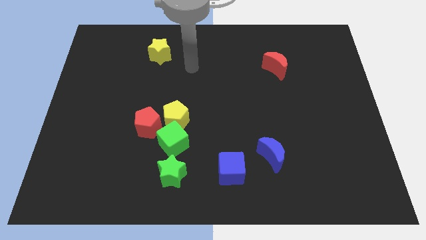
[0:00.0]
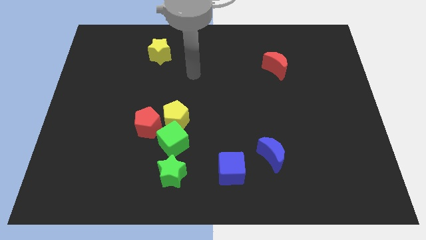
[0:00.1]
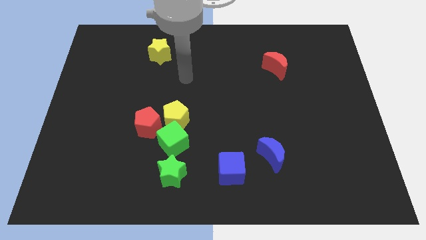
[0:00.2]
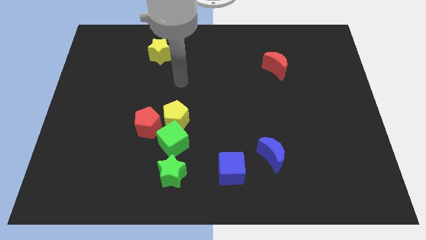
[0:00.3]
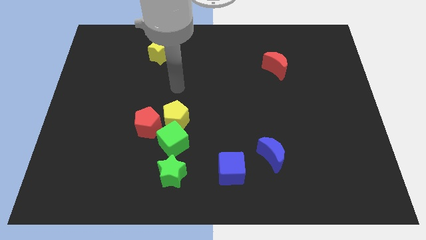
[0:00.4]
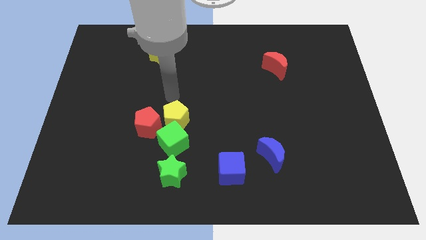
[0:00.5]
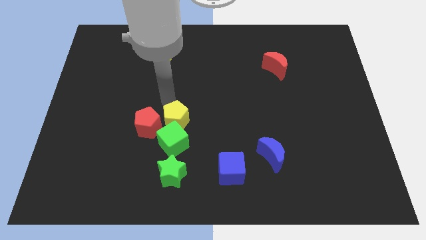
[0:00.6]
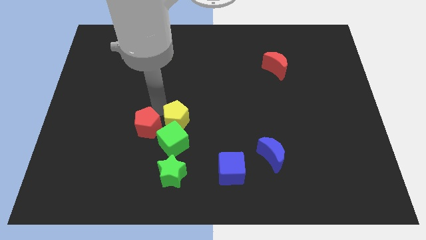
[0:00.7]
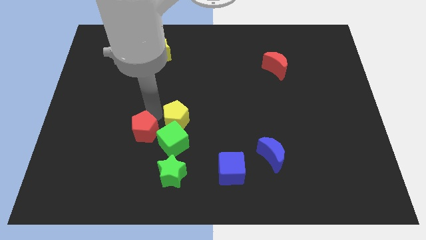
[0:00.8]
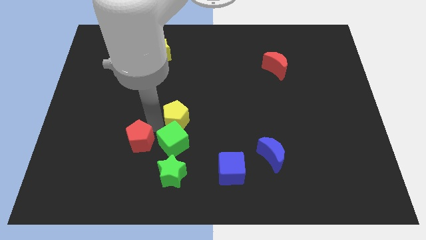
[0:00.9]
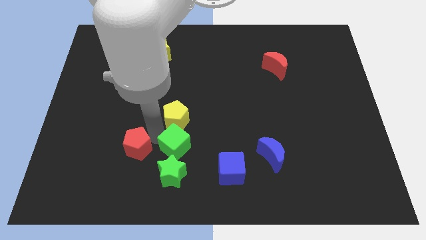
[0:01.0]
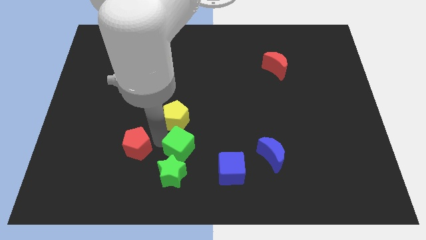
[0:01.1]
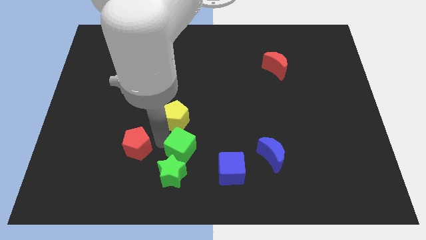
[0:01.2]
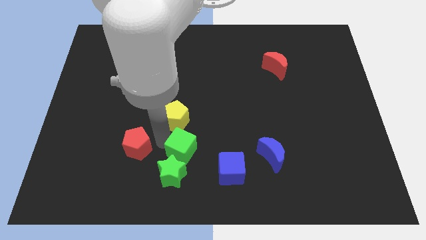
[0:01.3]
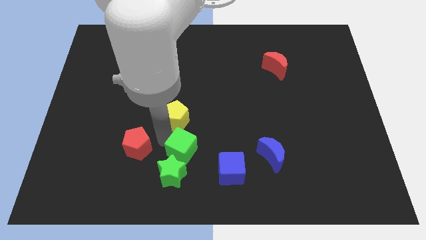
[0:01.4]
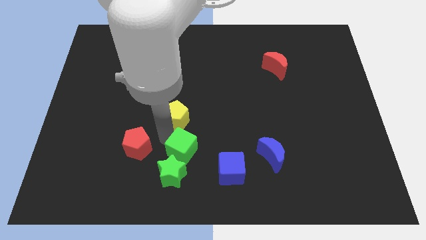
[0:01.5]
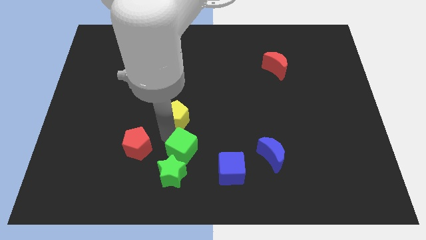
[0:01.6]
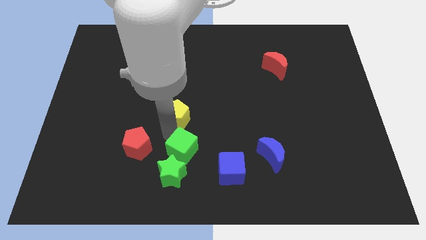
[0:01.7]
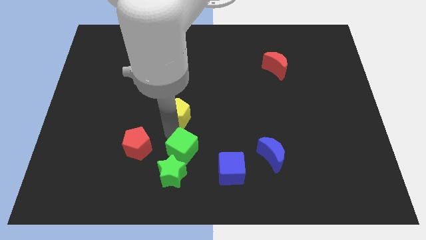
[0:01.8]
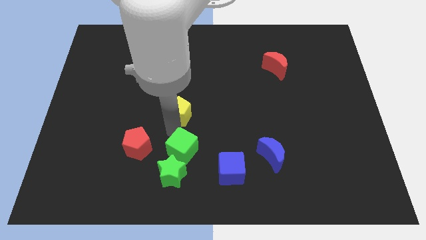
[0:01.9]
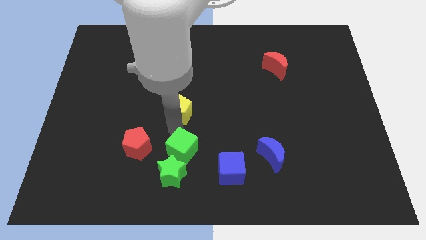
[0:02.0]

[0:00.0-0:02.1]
separate the yellow pentagon from the red pentagon and green cube

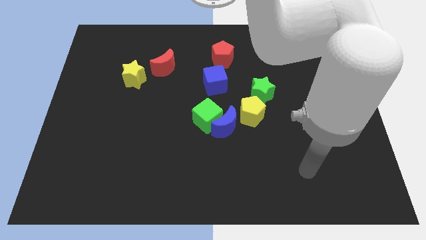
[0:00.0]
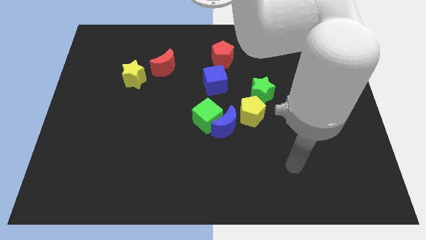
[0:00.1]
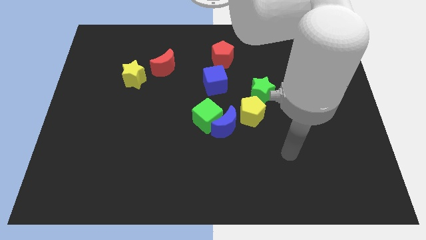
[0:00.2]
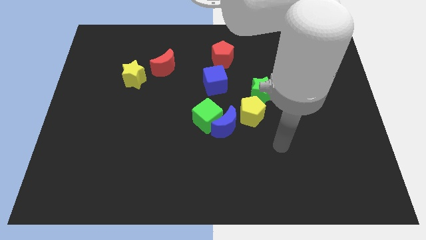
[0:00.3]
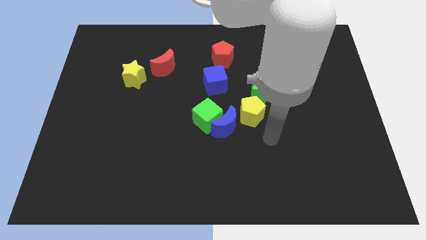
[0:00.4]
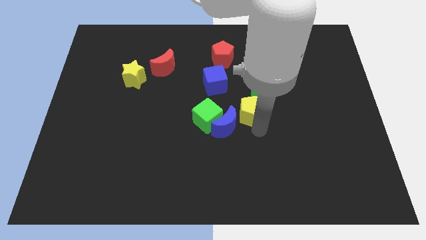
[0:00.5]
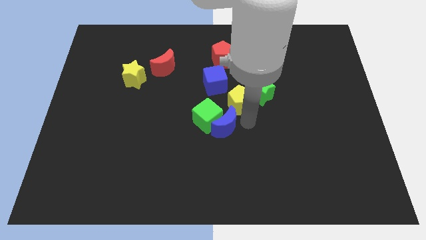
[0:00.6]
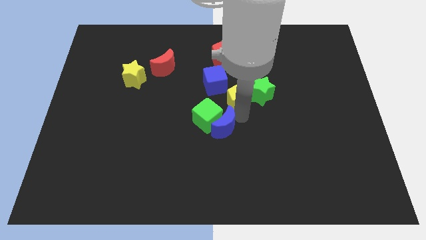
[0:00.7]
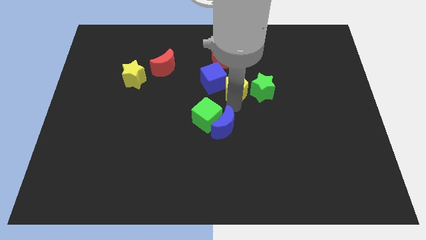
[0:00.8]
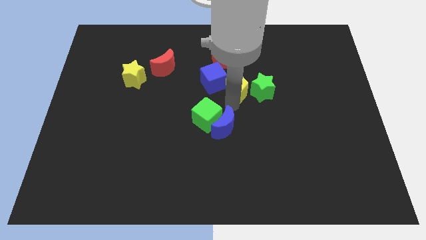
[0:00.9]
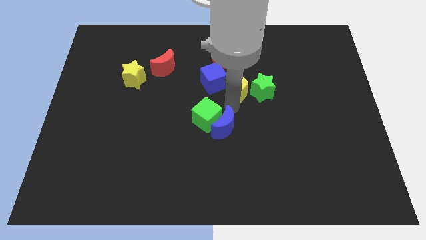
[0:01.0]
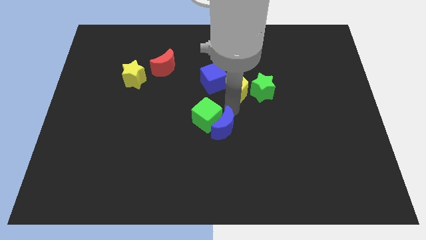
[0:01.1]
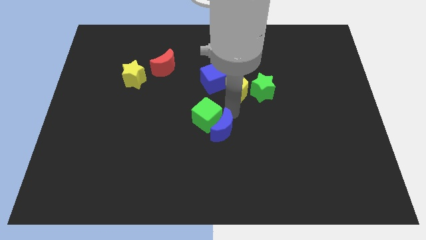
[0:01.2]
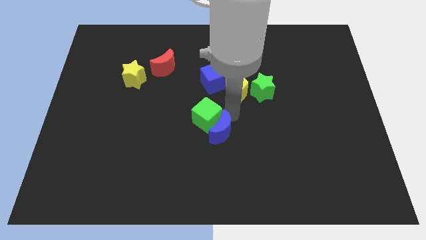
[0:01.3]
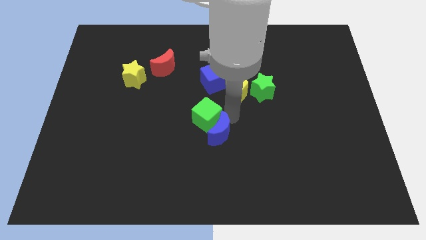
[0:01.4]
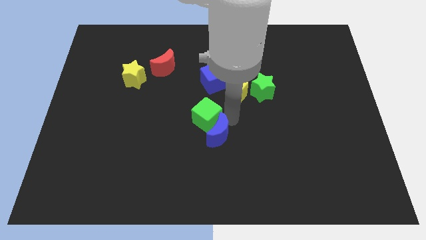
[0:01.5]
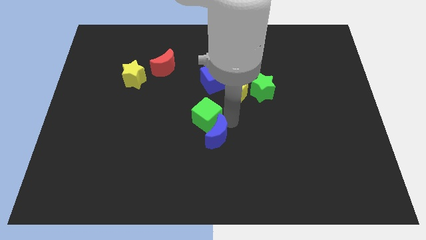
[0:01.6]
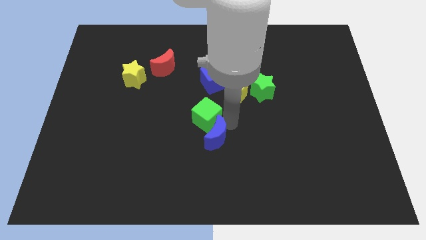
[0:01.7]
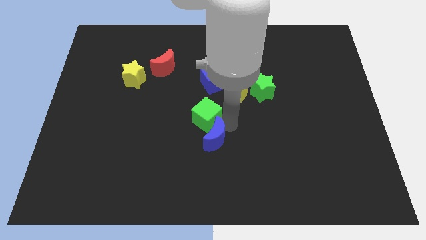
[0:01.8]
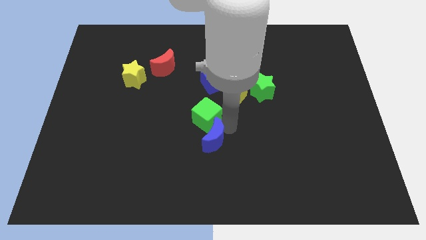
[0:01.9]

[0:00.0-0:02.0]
separate the blue moon from the green cube and yellow pentagon

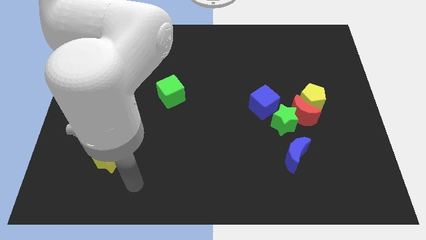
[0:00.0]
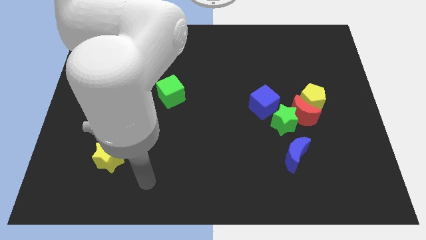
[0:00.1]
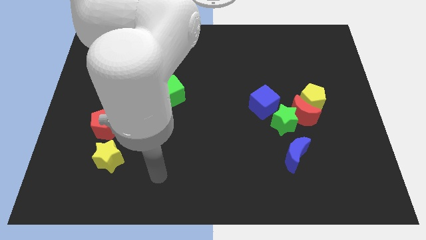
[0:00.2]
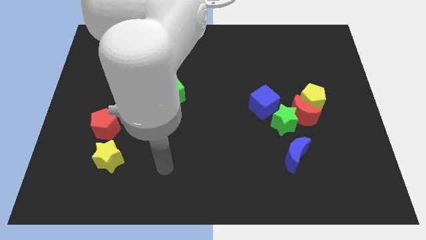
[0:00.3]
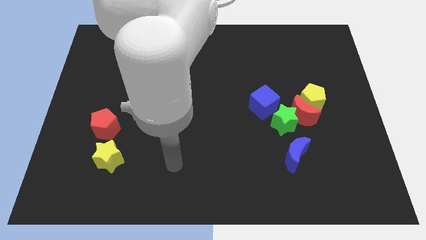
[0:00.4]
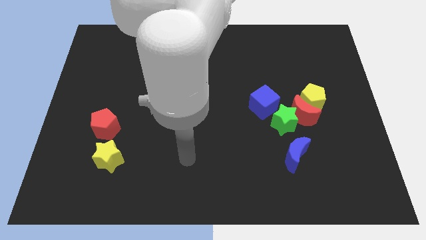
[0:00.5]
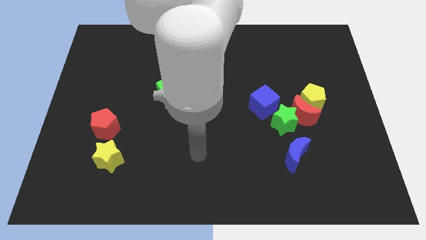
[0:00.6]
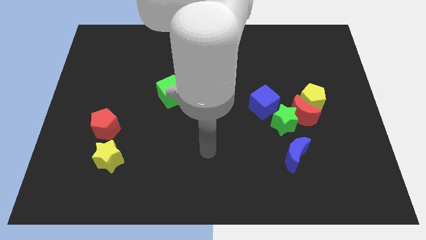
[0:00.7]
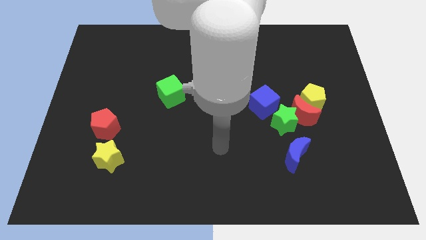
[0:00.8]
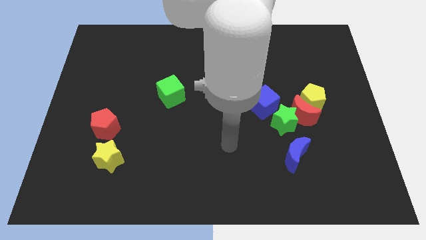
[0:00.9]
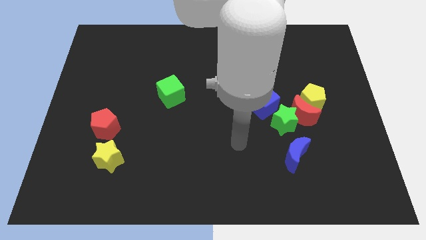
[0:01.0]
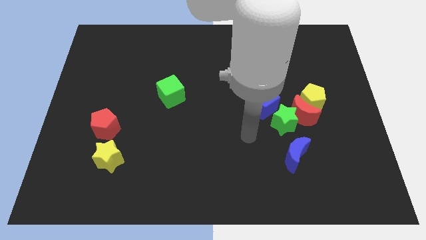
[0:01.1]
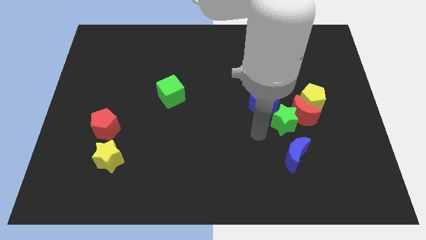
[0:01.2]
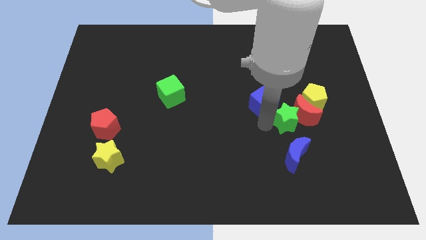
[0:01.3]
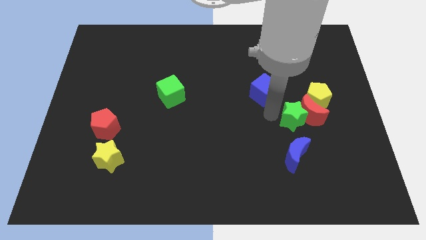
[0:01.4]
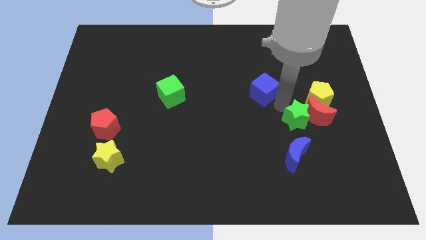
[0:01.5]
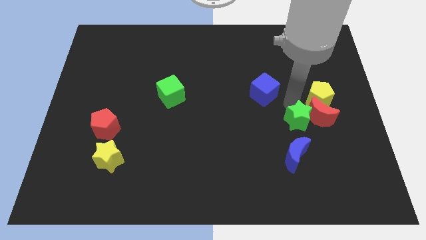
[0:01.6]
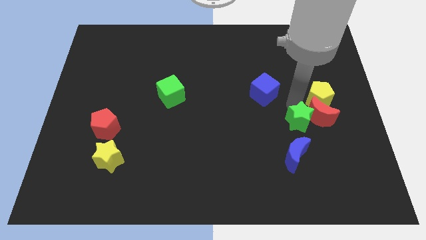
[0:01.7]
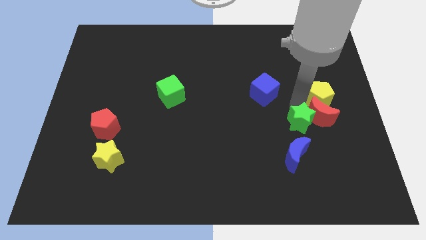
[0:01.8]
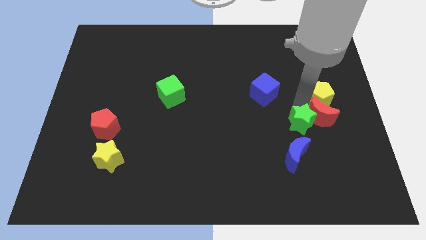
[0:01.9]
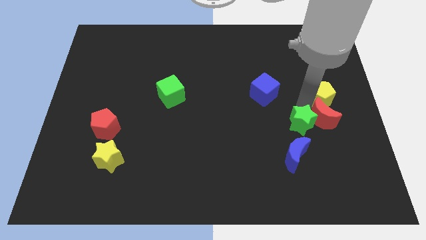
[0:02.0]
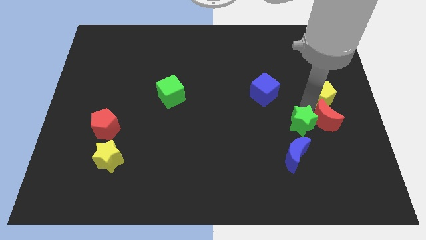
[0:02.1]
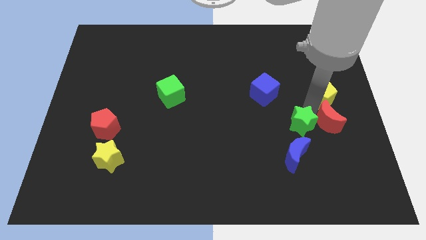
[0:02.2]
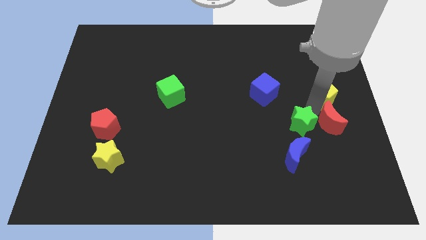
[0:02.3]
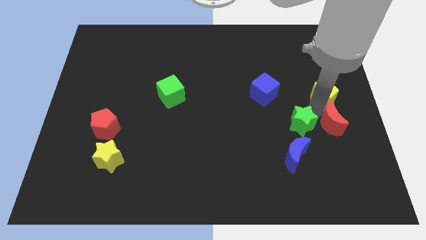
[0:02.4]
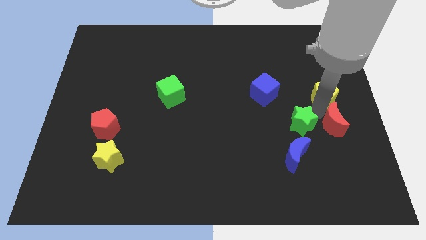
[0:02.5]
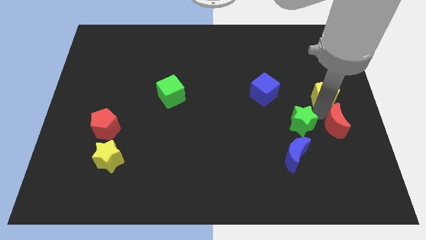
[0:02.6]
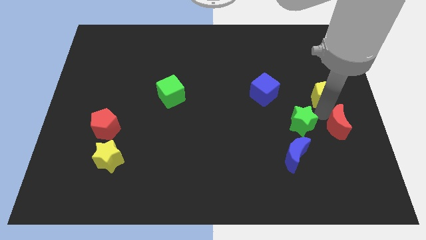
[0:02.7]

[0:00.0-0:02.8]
move the red moon away from the group

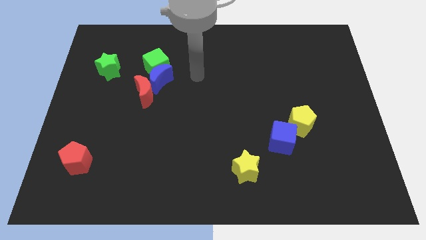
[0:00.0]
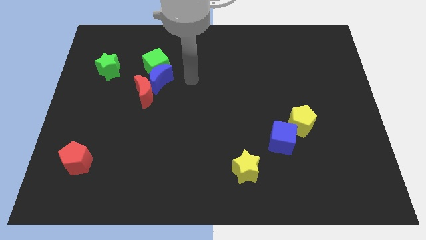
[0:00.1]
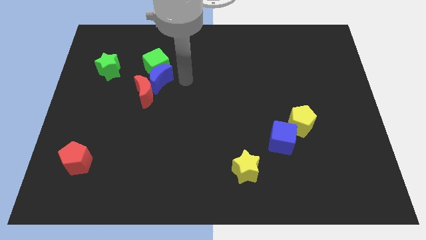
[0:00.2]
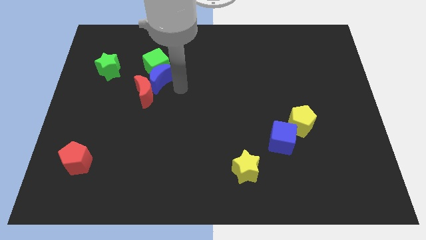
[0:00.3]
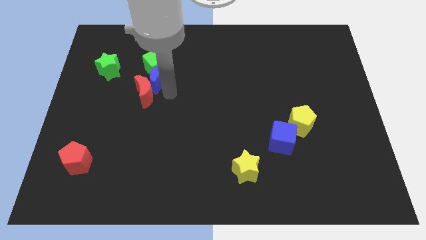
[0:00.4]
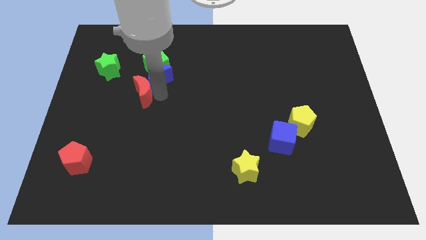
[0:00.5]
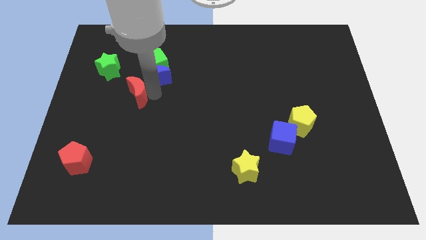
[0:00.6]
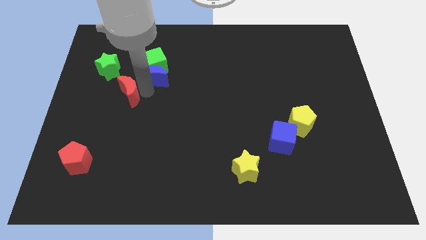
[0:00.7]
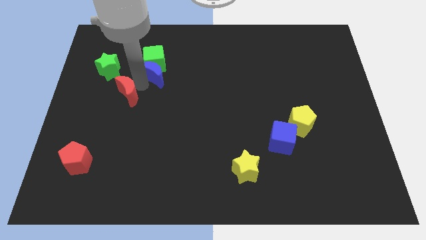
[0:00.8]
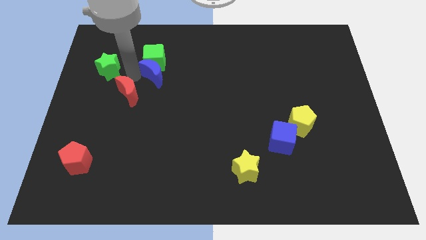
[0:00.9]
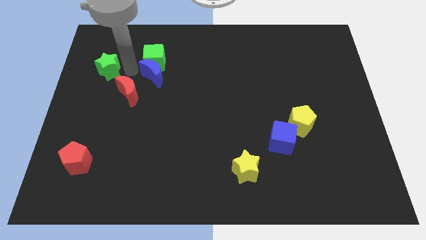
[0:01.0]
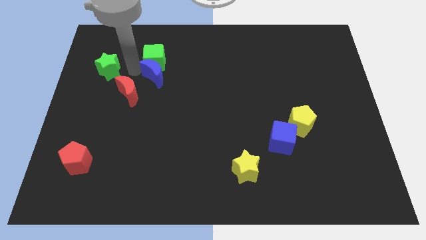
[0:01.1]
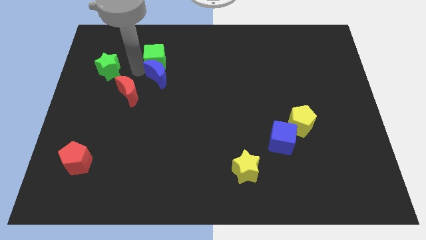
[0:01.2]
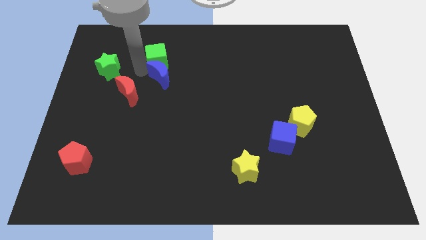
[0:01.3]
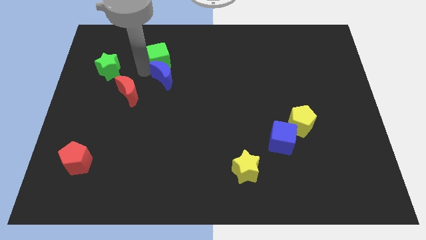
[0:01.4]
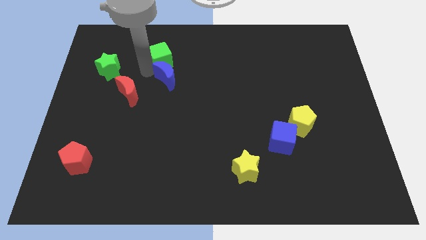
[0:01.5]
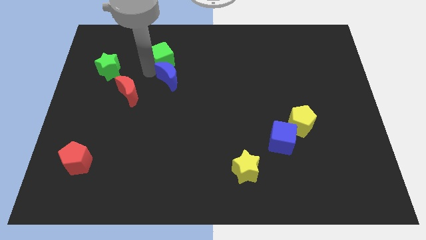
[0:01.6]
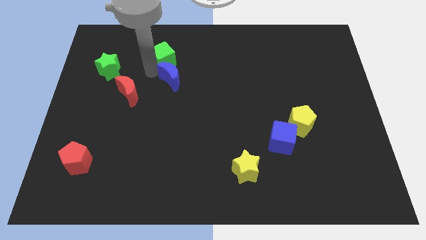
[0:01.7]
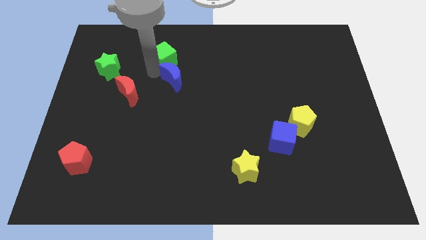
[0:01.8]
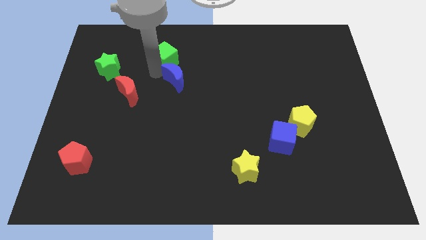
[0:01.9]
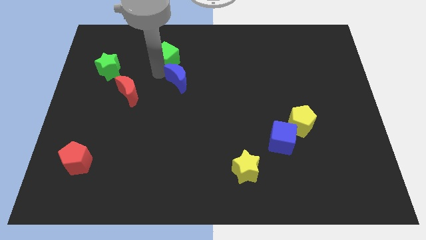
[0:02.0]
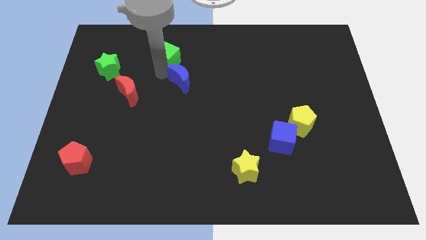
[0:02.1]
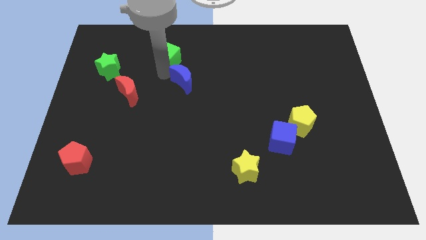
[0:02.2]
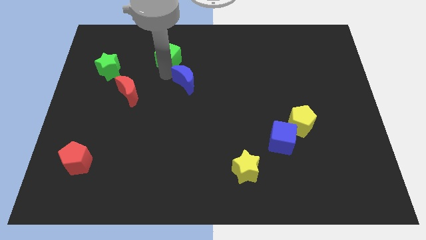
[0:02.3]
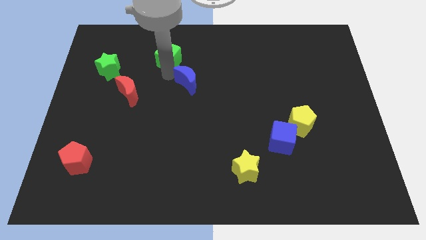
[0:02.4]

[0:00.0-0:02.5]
move the blue moon away from the green cube and red moon
